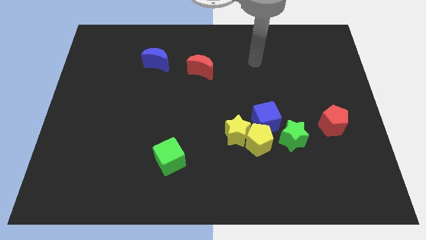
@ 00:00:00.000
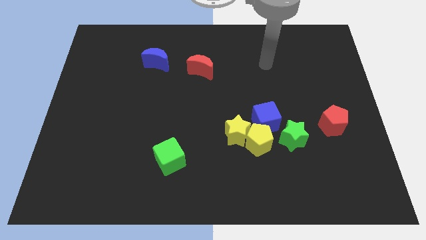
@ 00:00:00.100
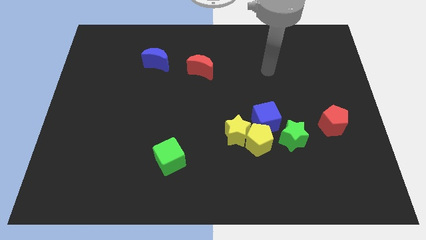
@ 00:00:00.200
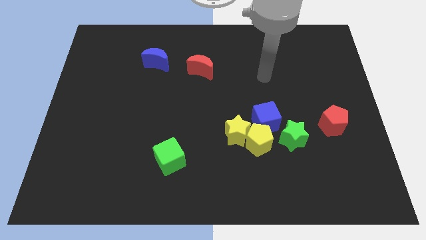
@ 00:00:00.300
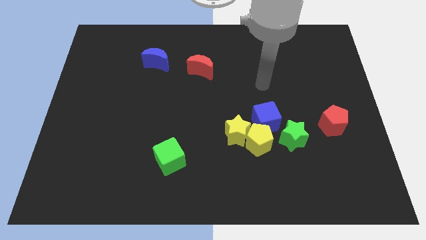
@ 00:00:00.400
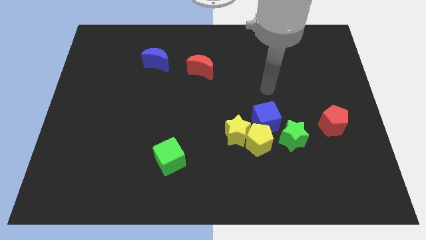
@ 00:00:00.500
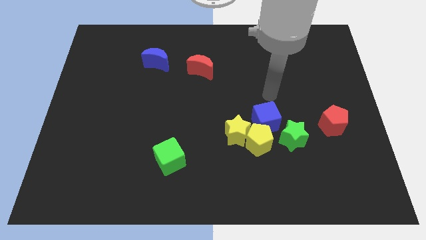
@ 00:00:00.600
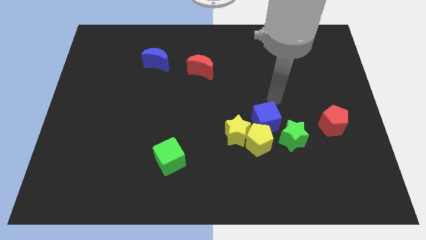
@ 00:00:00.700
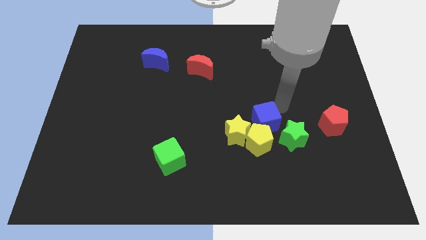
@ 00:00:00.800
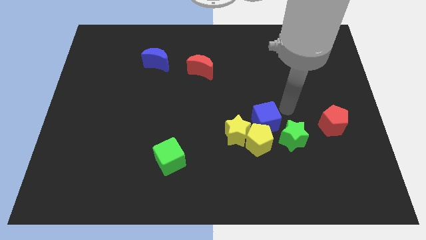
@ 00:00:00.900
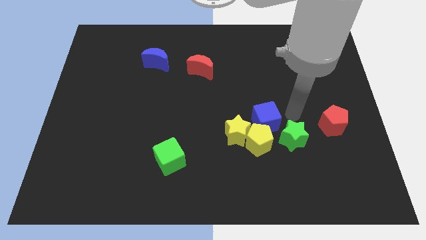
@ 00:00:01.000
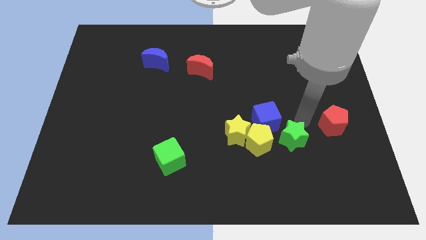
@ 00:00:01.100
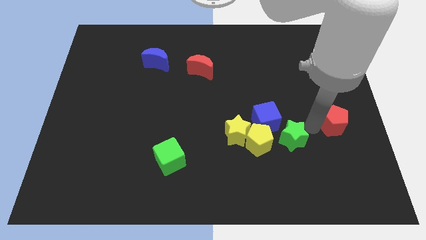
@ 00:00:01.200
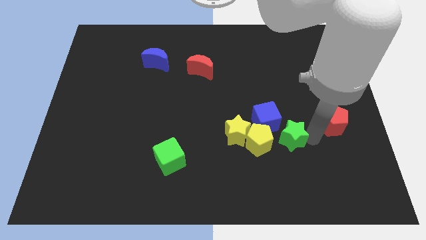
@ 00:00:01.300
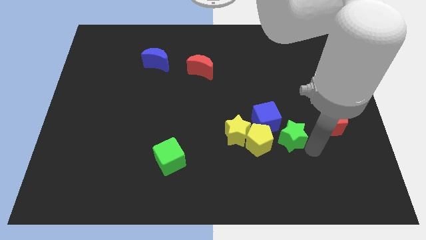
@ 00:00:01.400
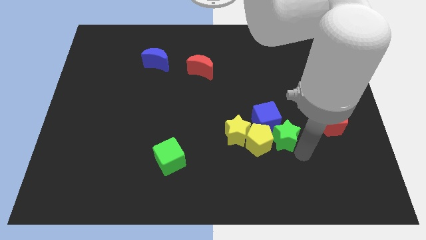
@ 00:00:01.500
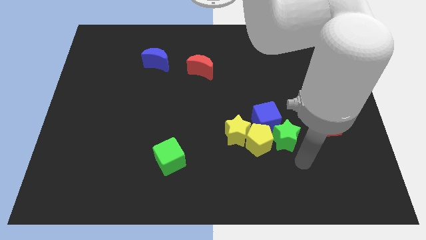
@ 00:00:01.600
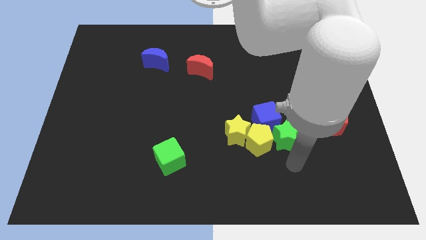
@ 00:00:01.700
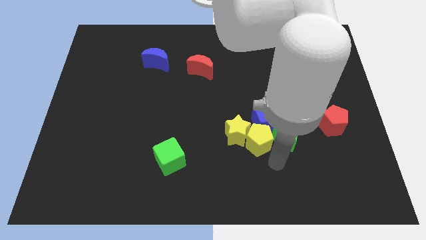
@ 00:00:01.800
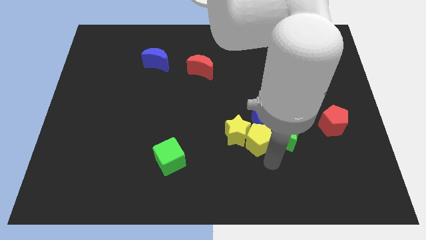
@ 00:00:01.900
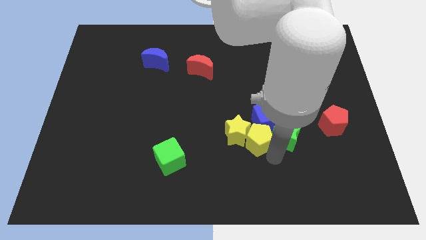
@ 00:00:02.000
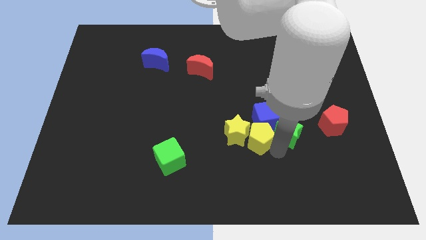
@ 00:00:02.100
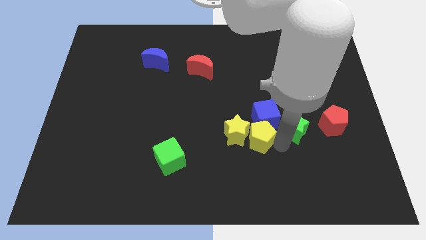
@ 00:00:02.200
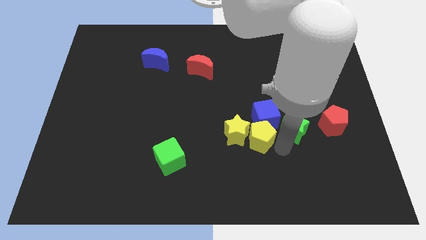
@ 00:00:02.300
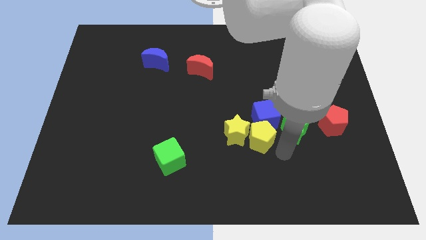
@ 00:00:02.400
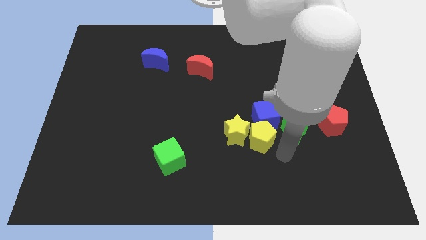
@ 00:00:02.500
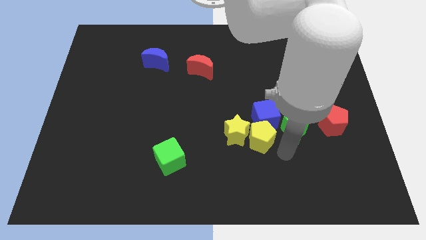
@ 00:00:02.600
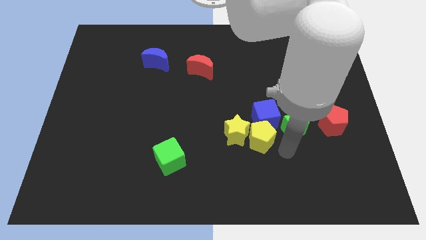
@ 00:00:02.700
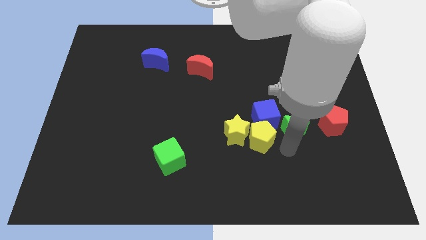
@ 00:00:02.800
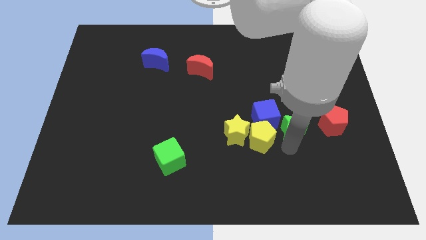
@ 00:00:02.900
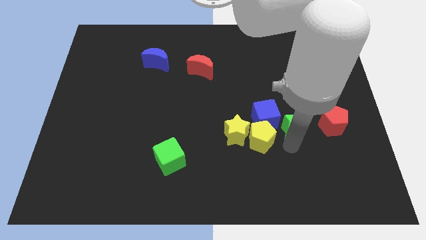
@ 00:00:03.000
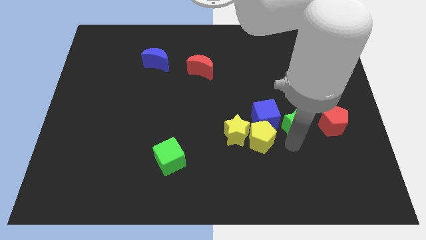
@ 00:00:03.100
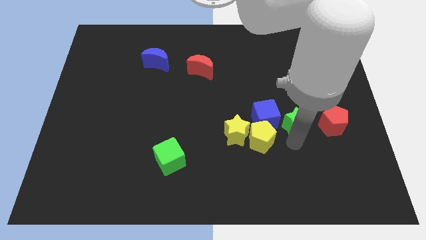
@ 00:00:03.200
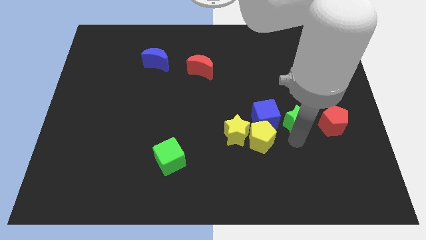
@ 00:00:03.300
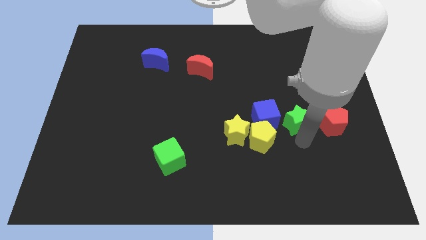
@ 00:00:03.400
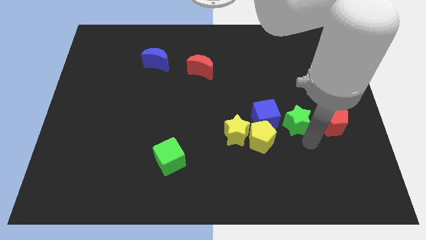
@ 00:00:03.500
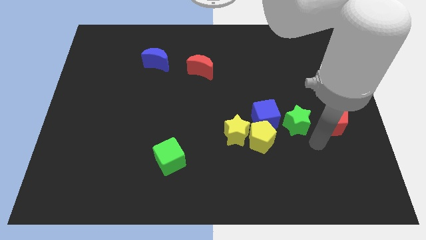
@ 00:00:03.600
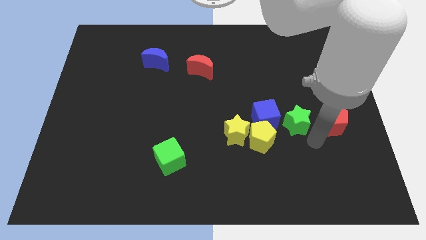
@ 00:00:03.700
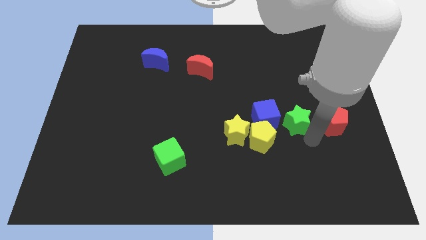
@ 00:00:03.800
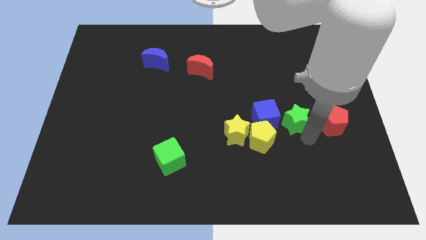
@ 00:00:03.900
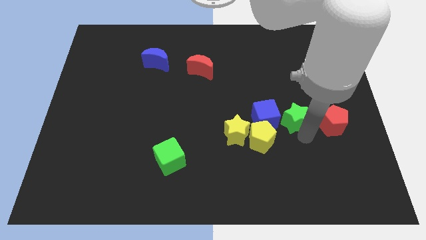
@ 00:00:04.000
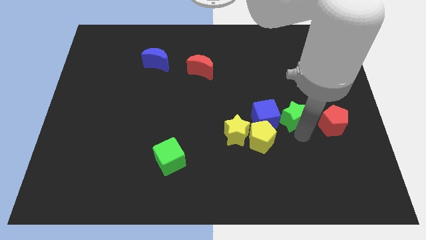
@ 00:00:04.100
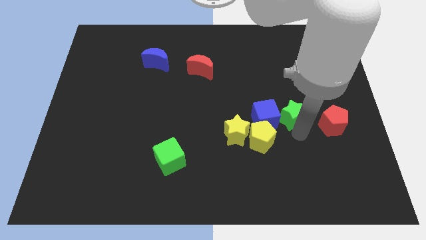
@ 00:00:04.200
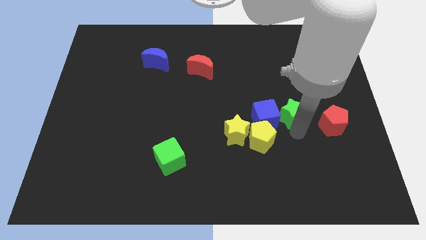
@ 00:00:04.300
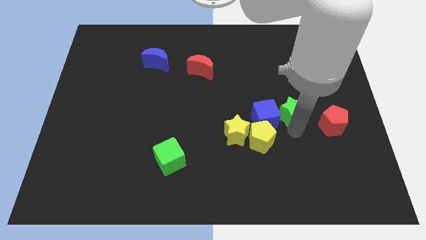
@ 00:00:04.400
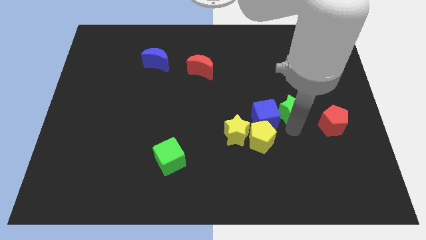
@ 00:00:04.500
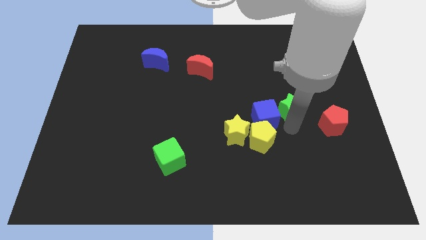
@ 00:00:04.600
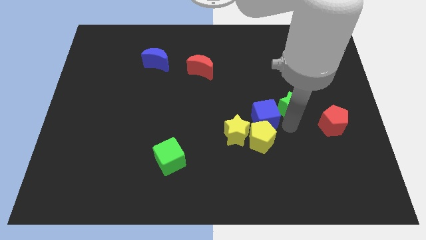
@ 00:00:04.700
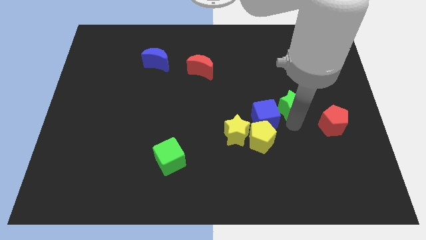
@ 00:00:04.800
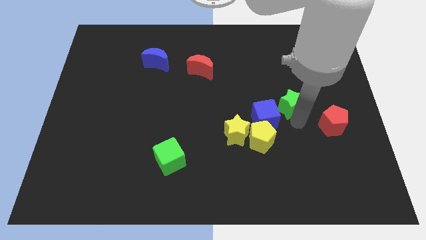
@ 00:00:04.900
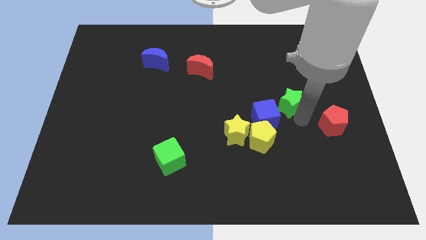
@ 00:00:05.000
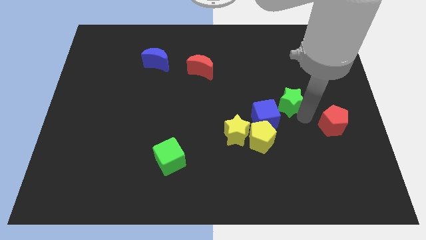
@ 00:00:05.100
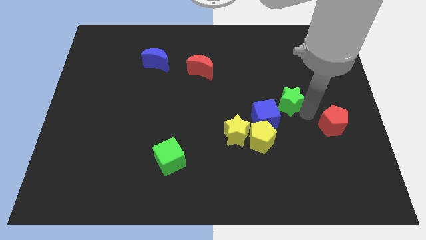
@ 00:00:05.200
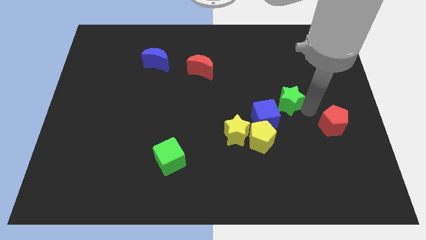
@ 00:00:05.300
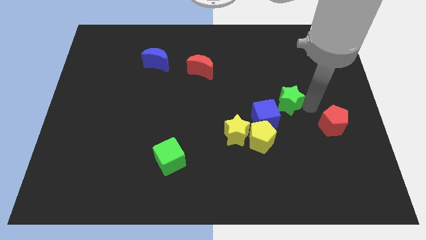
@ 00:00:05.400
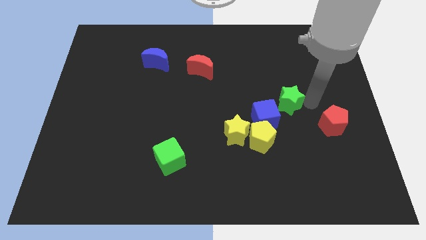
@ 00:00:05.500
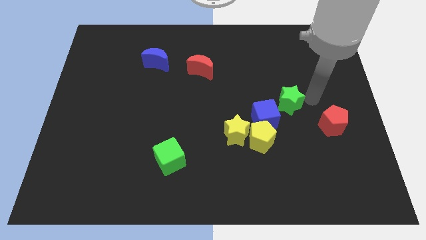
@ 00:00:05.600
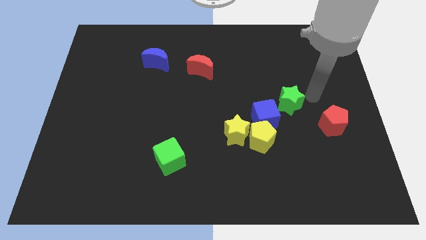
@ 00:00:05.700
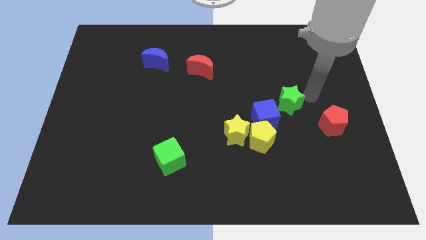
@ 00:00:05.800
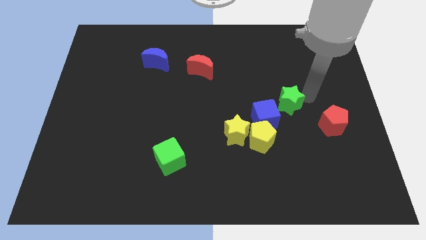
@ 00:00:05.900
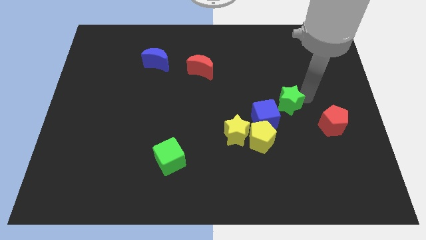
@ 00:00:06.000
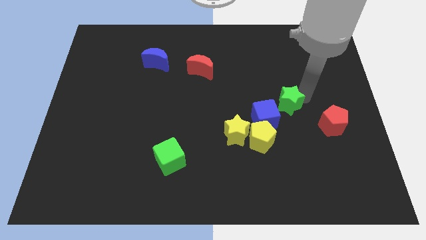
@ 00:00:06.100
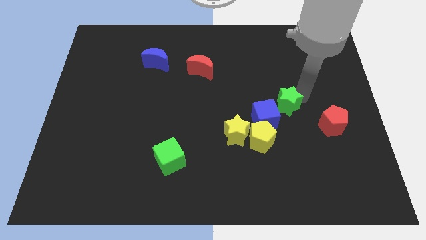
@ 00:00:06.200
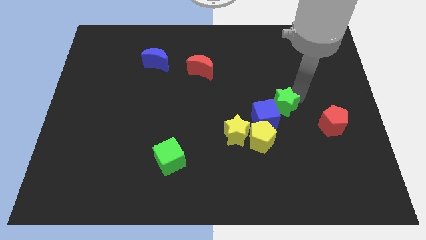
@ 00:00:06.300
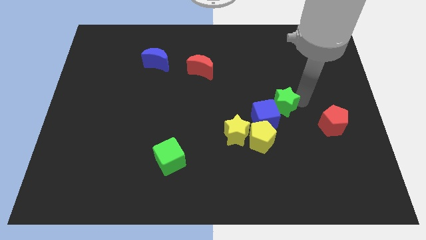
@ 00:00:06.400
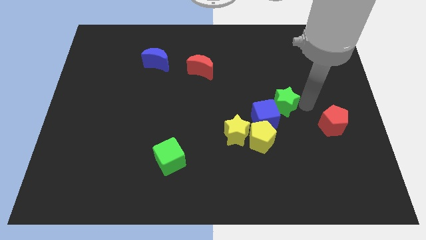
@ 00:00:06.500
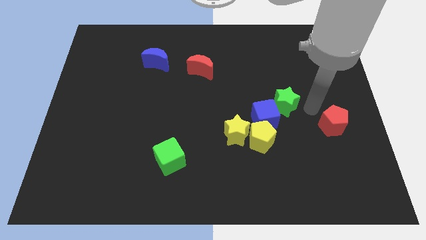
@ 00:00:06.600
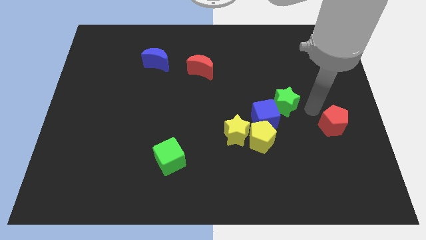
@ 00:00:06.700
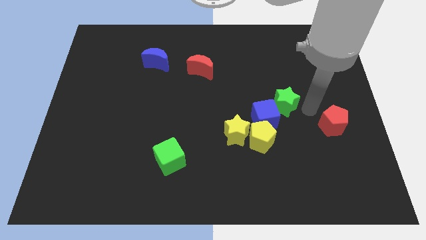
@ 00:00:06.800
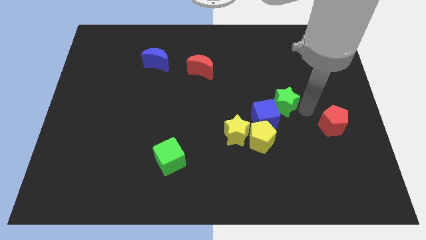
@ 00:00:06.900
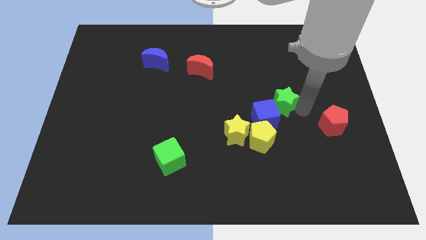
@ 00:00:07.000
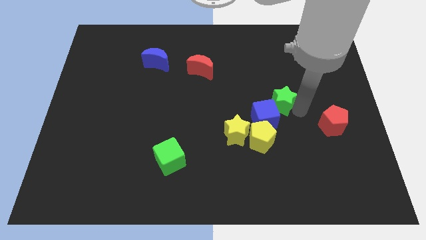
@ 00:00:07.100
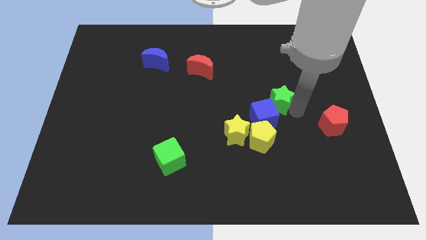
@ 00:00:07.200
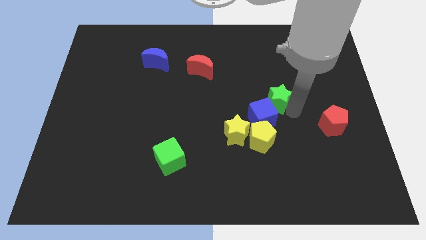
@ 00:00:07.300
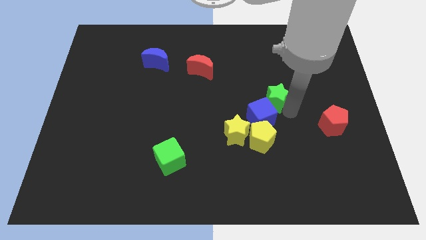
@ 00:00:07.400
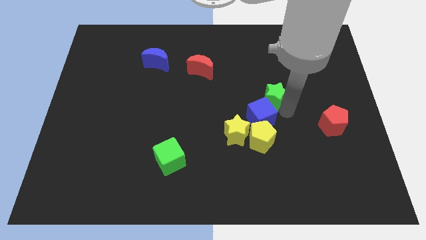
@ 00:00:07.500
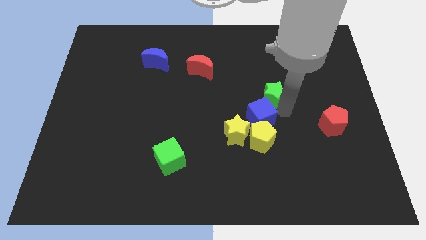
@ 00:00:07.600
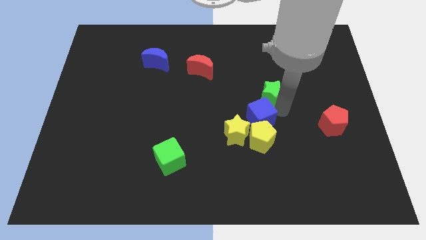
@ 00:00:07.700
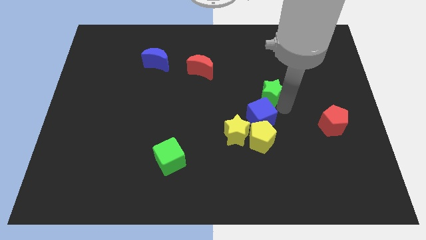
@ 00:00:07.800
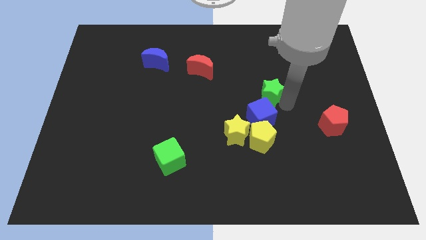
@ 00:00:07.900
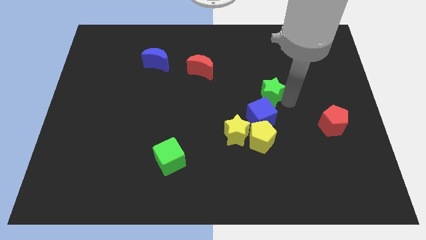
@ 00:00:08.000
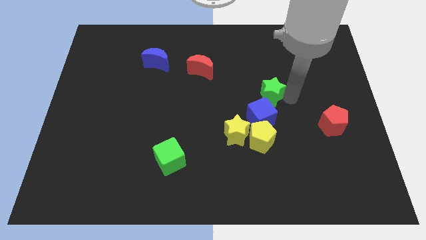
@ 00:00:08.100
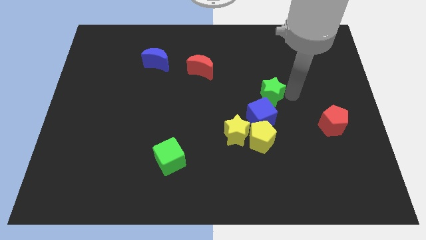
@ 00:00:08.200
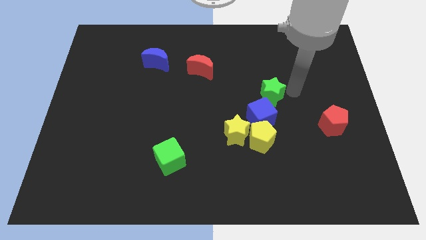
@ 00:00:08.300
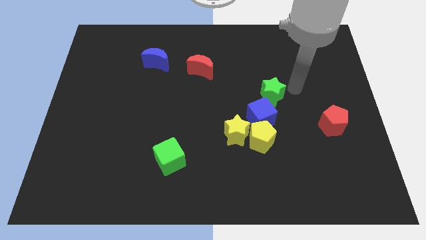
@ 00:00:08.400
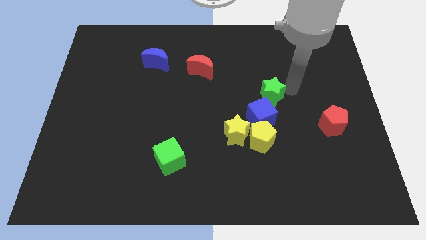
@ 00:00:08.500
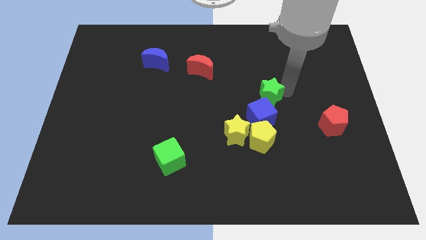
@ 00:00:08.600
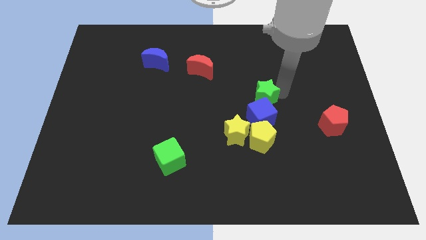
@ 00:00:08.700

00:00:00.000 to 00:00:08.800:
put the green star to the center
